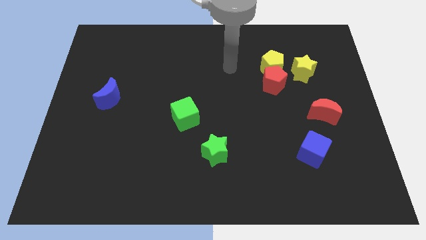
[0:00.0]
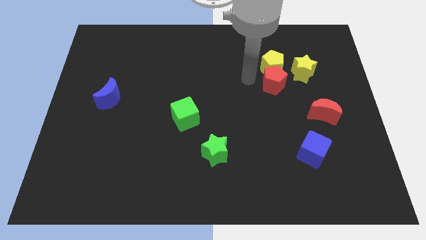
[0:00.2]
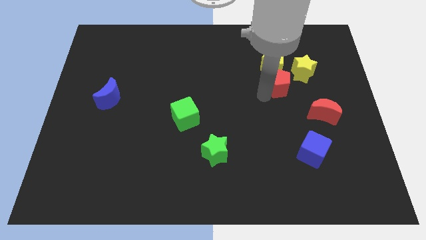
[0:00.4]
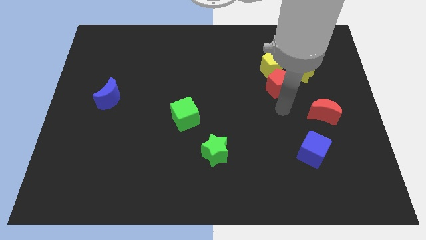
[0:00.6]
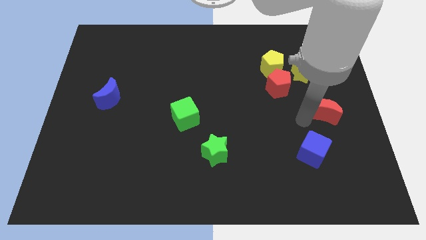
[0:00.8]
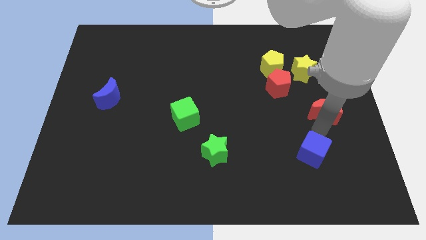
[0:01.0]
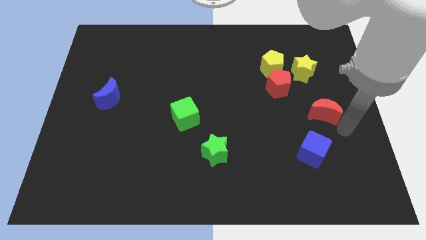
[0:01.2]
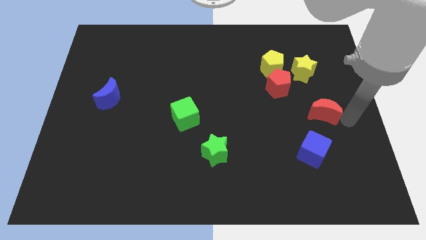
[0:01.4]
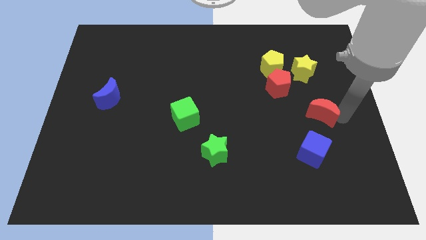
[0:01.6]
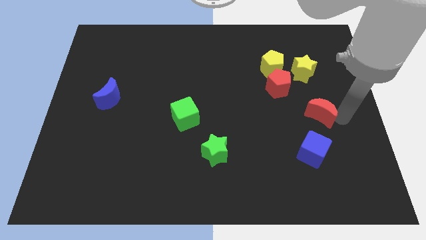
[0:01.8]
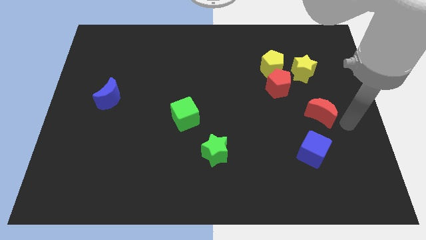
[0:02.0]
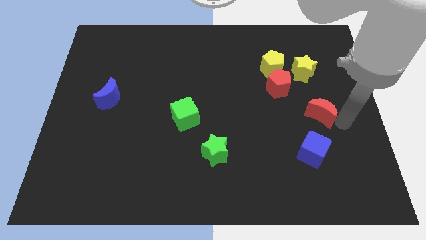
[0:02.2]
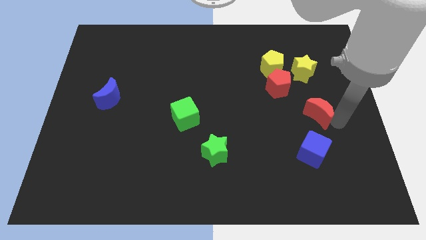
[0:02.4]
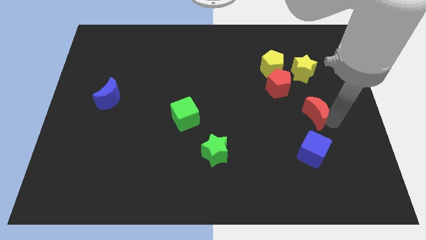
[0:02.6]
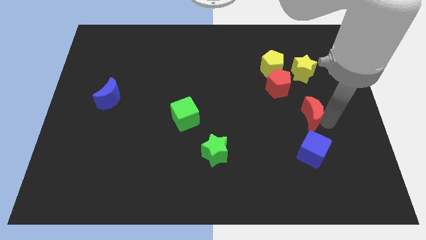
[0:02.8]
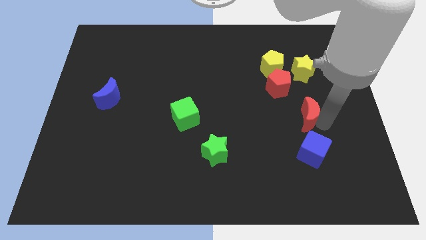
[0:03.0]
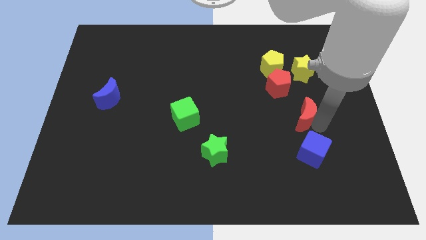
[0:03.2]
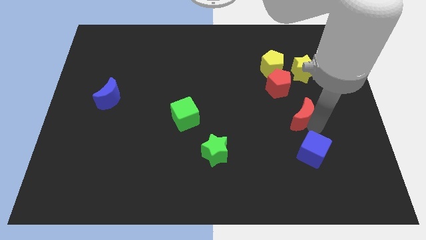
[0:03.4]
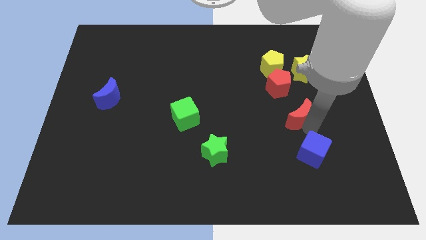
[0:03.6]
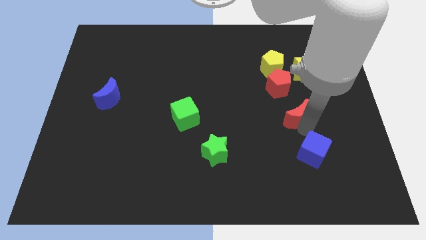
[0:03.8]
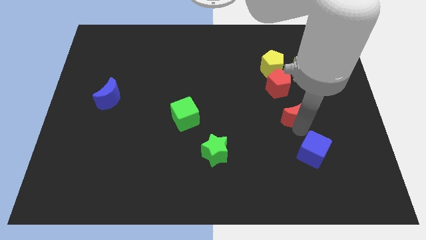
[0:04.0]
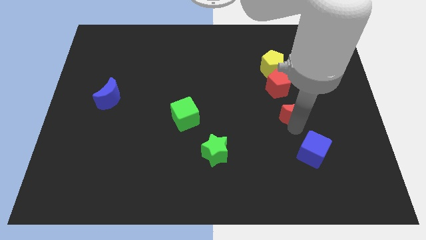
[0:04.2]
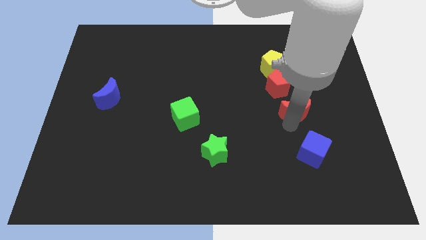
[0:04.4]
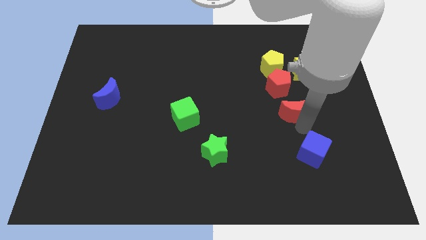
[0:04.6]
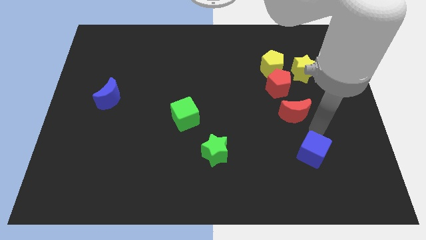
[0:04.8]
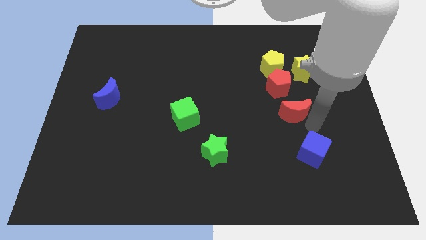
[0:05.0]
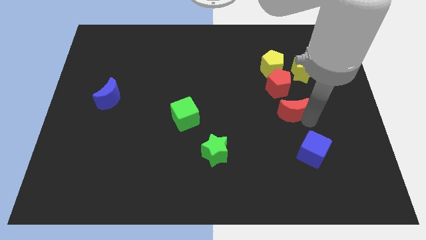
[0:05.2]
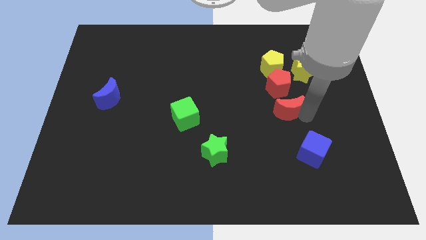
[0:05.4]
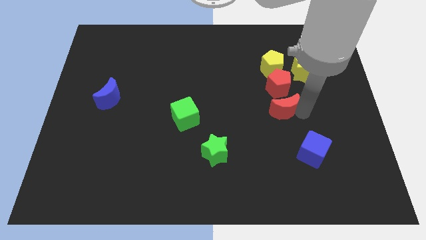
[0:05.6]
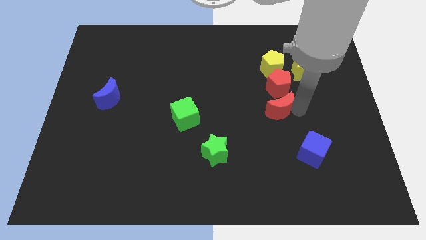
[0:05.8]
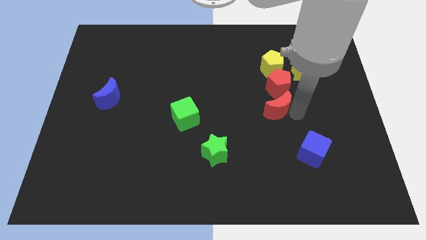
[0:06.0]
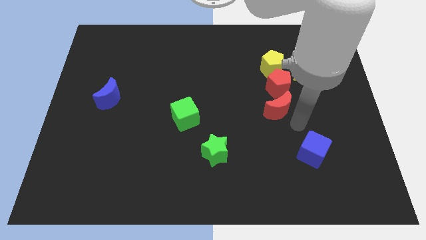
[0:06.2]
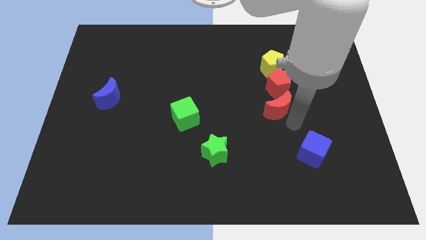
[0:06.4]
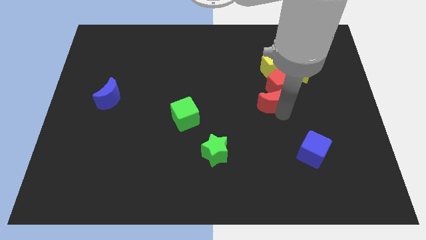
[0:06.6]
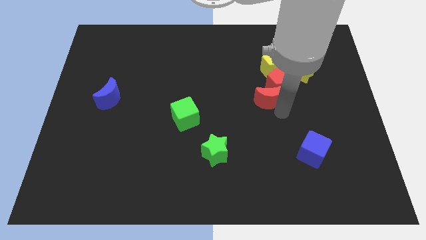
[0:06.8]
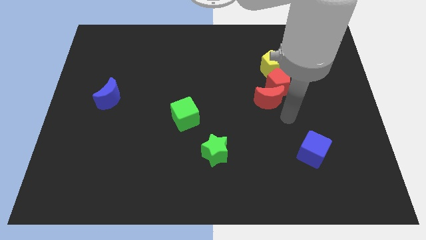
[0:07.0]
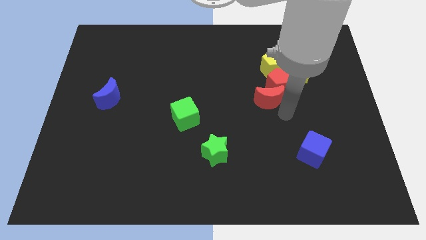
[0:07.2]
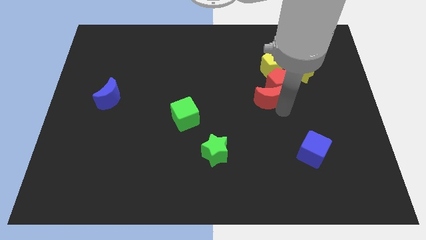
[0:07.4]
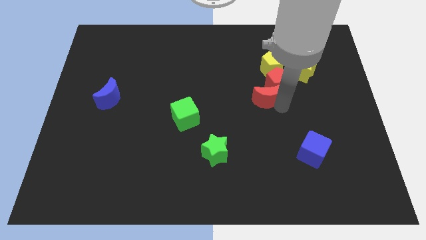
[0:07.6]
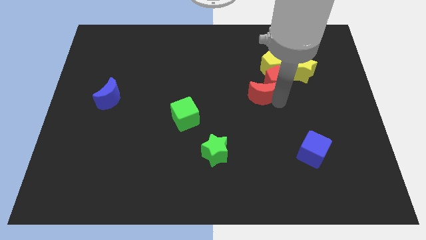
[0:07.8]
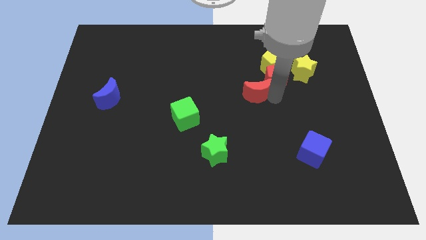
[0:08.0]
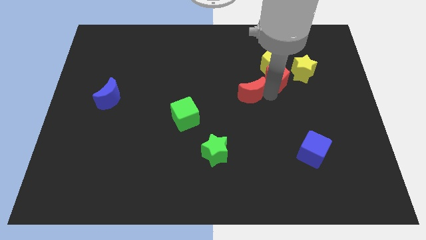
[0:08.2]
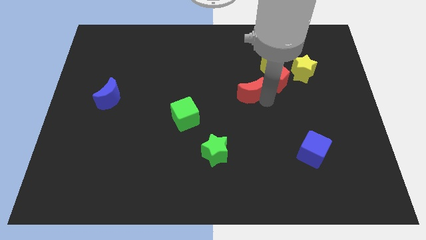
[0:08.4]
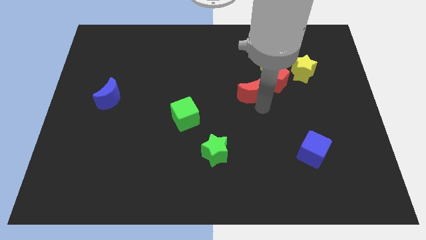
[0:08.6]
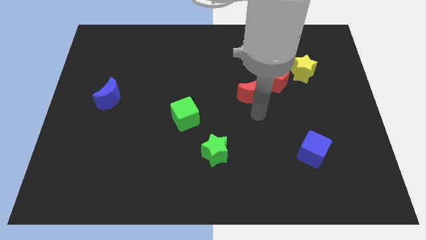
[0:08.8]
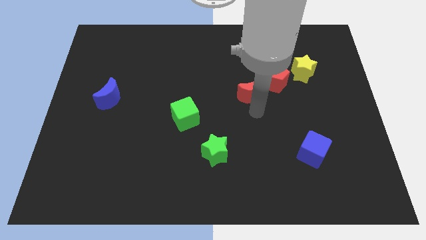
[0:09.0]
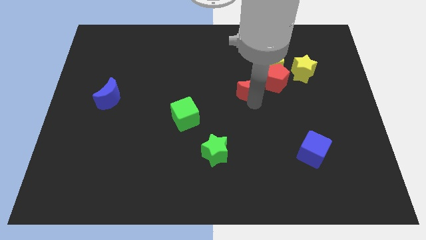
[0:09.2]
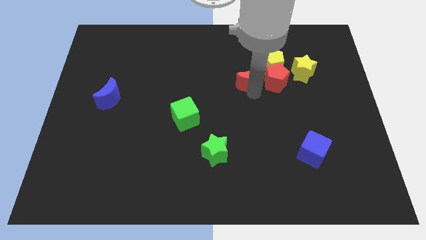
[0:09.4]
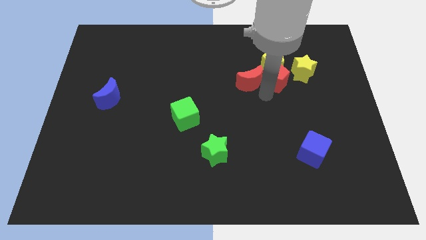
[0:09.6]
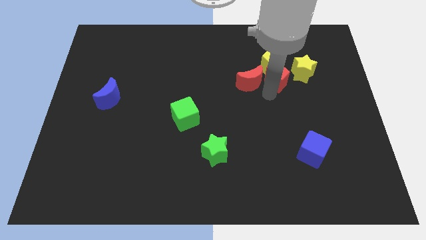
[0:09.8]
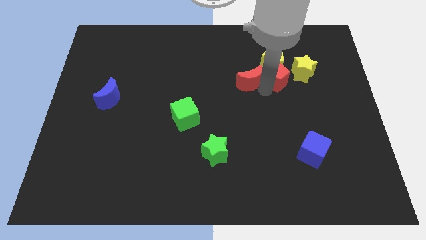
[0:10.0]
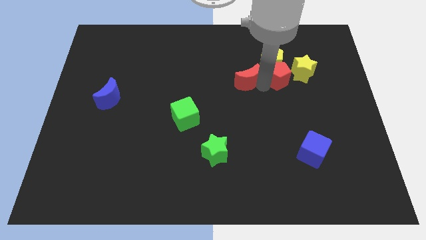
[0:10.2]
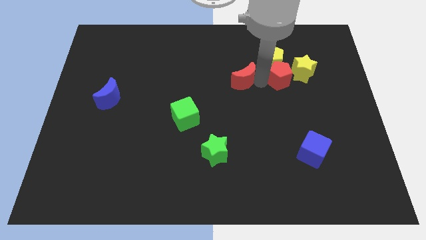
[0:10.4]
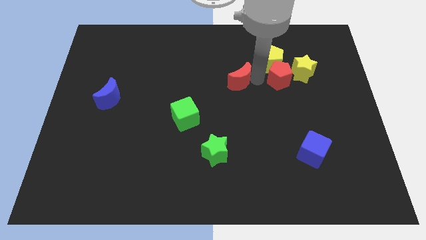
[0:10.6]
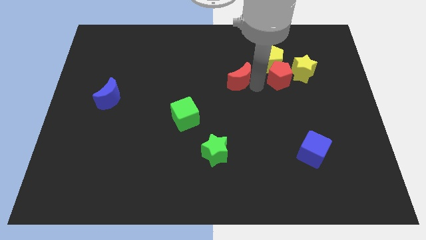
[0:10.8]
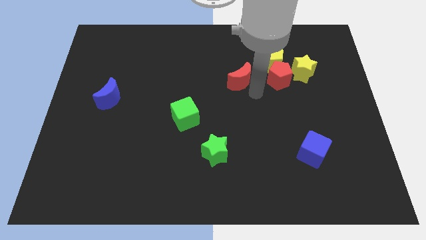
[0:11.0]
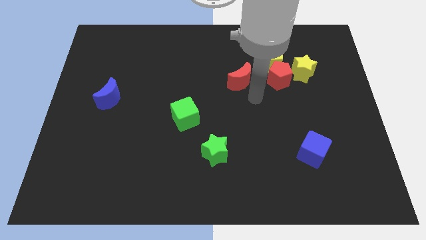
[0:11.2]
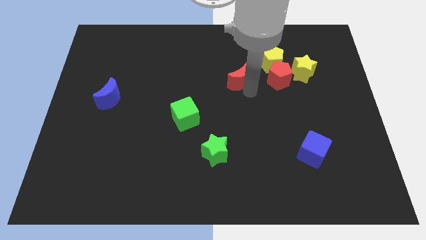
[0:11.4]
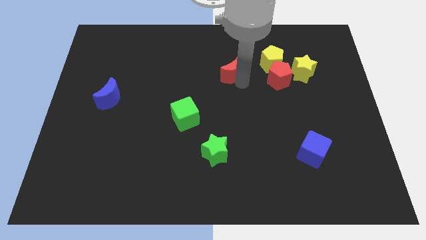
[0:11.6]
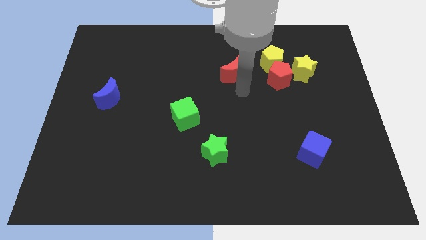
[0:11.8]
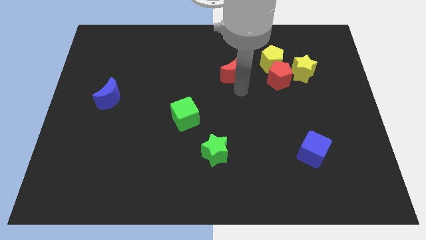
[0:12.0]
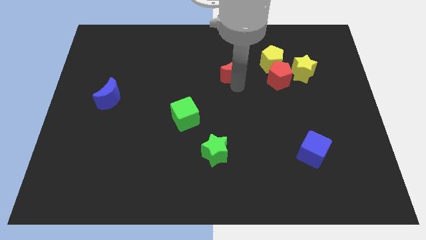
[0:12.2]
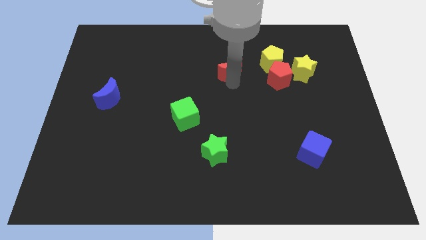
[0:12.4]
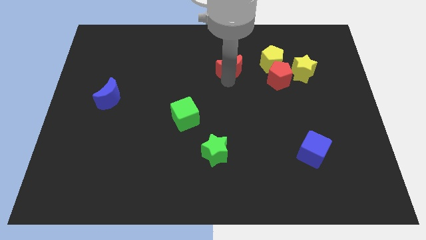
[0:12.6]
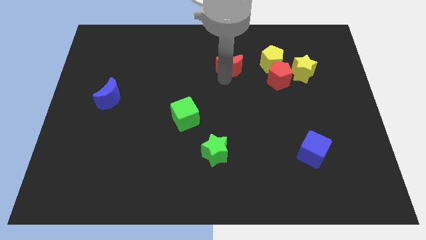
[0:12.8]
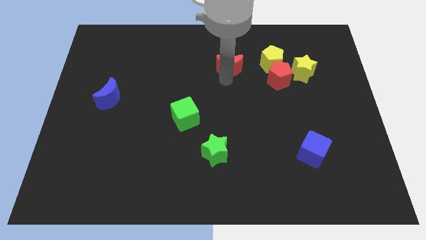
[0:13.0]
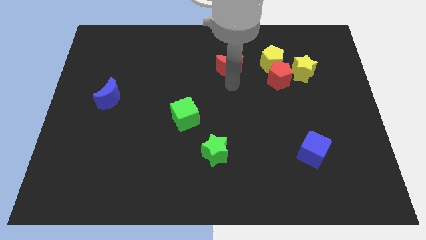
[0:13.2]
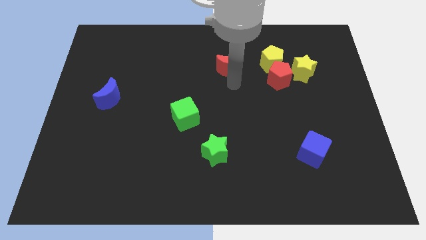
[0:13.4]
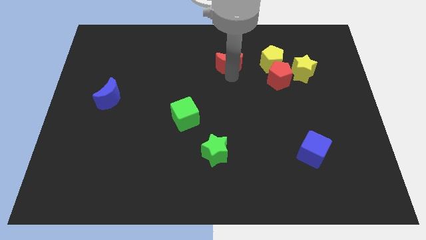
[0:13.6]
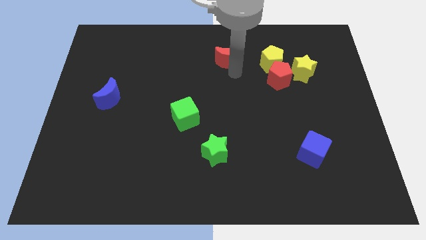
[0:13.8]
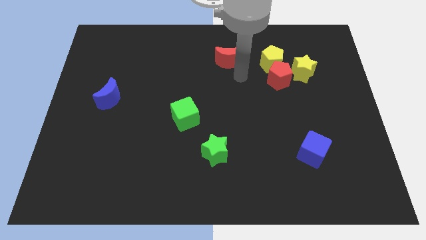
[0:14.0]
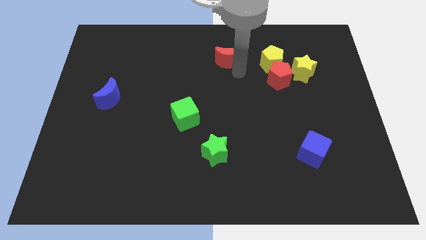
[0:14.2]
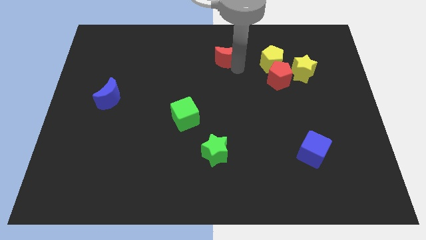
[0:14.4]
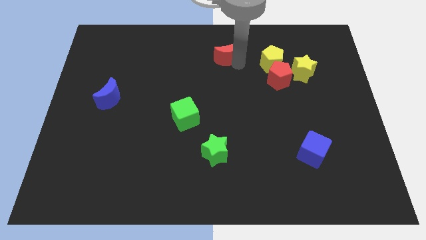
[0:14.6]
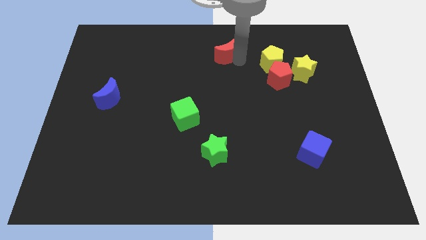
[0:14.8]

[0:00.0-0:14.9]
put the red moon to the towards your base
